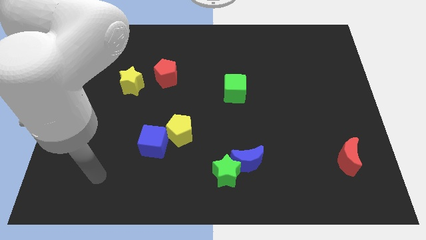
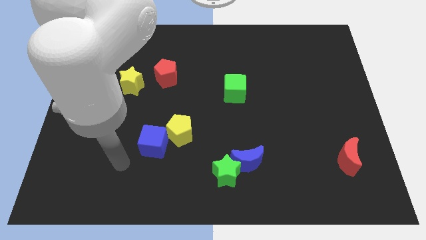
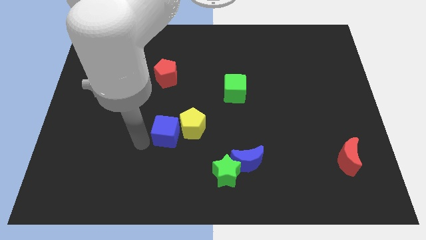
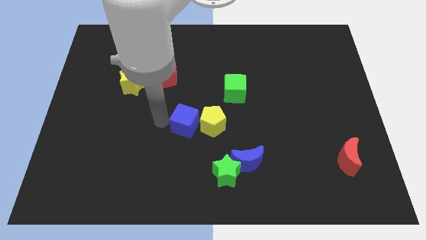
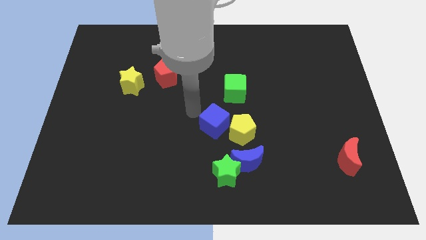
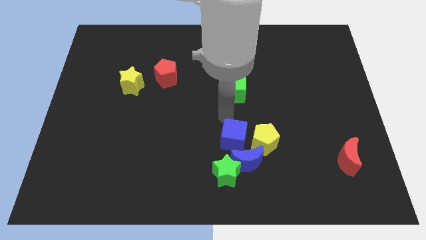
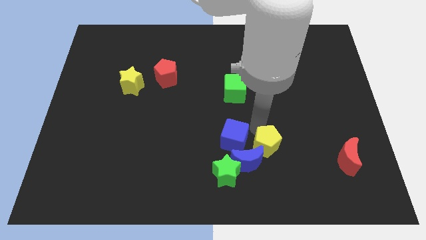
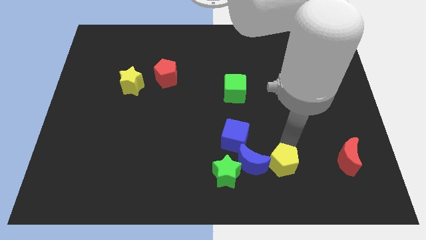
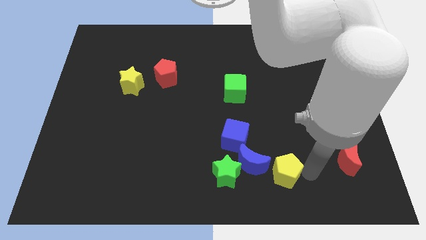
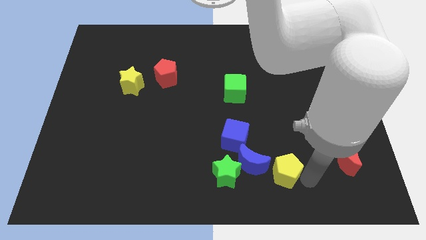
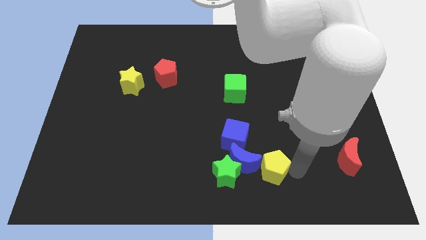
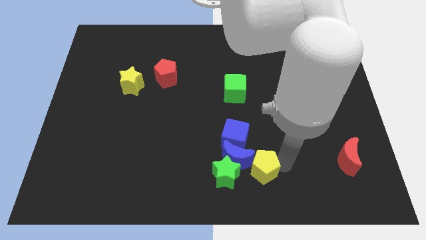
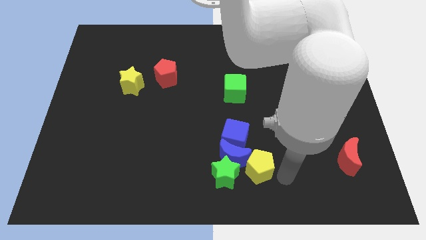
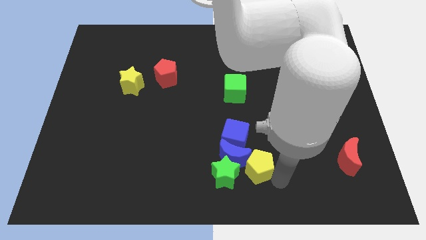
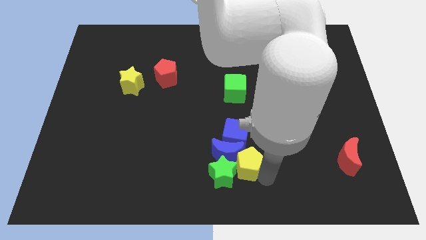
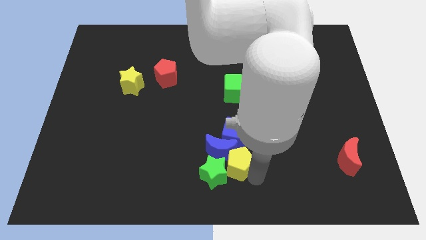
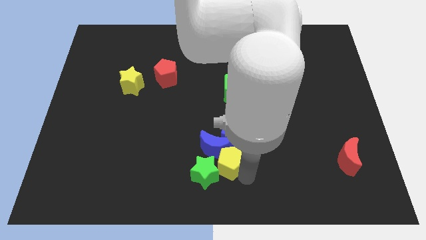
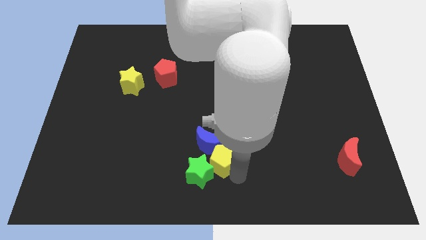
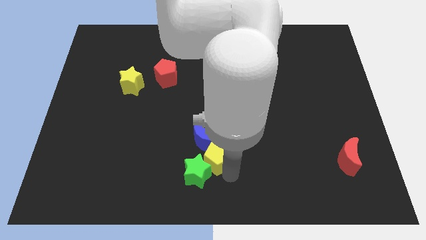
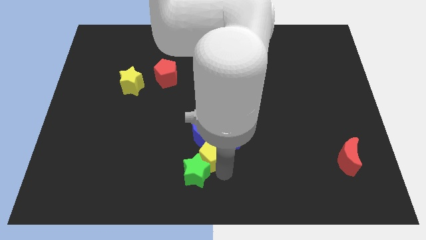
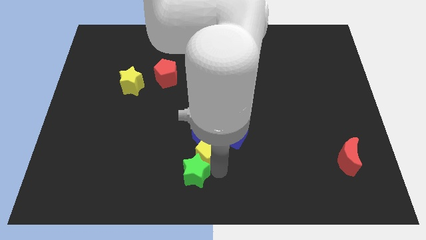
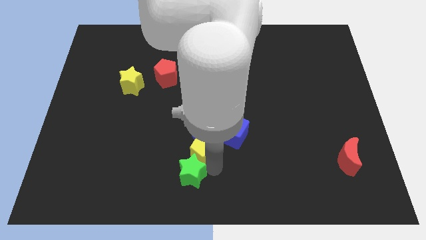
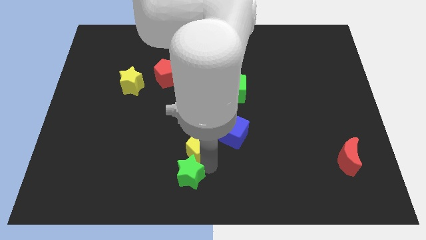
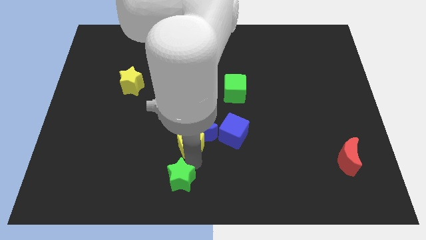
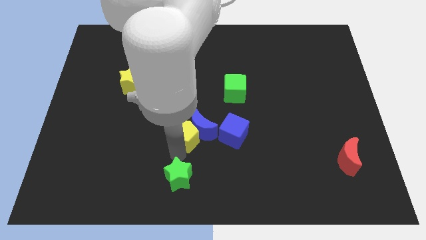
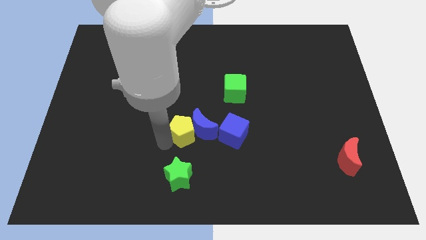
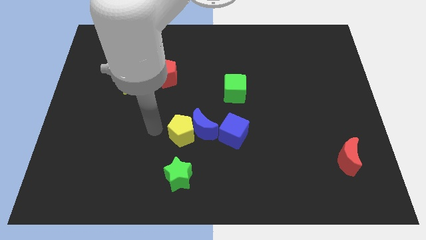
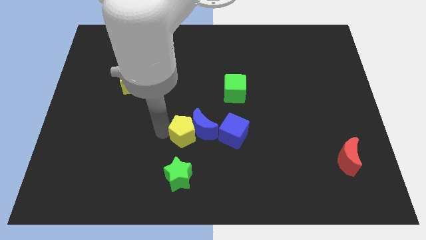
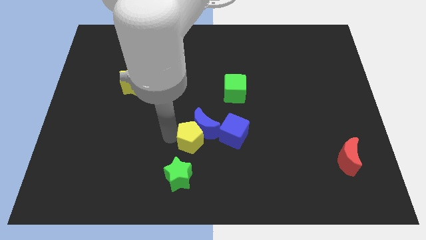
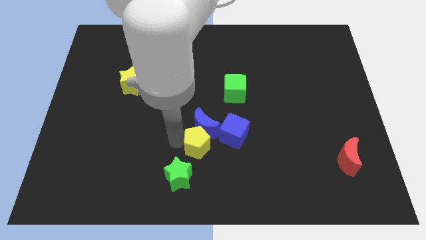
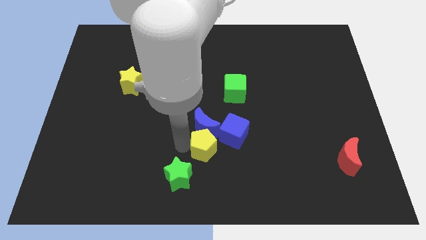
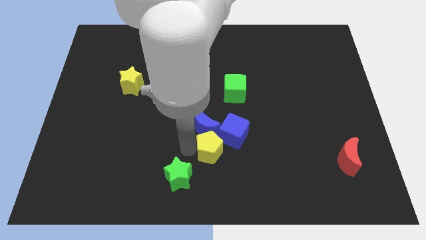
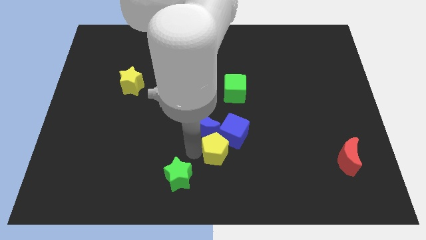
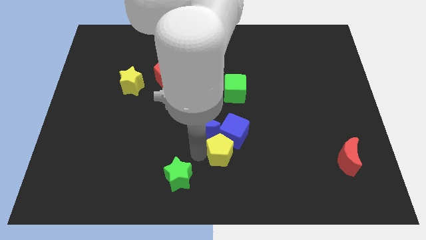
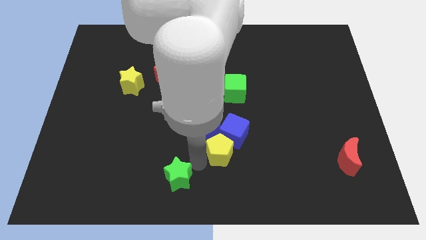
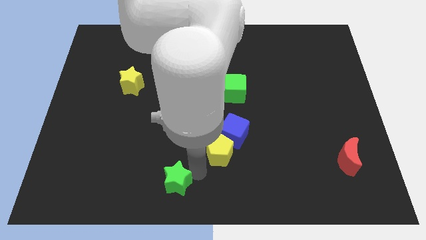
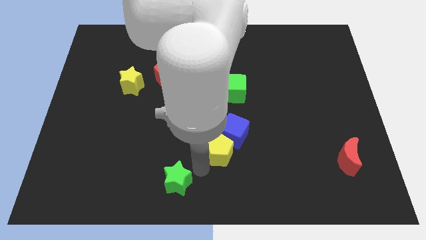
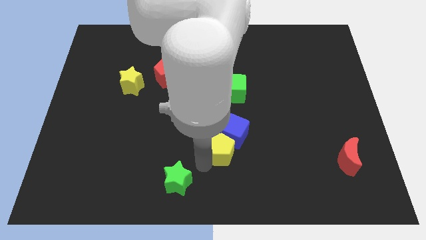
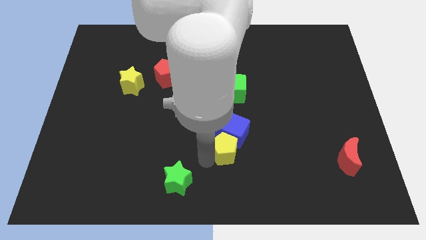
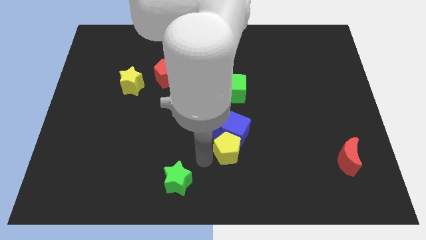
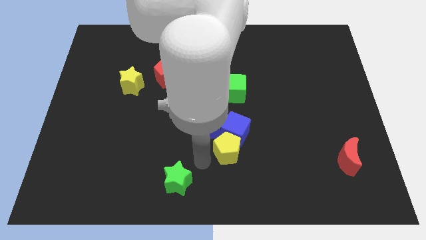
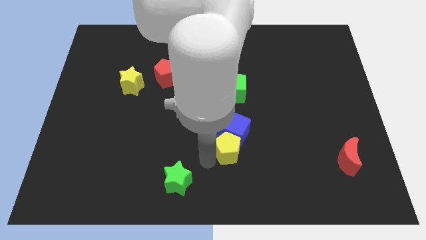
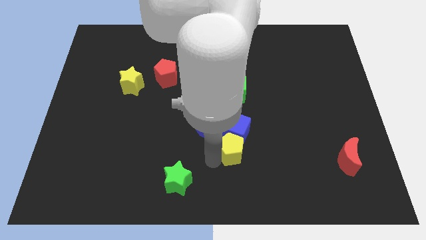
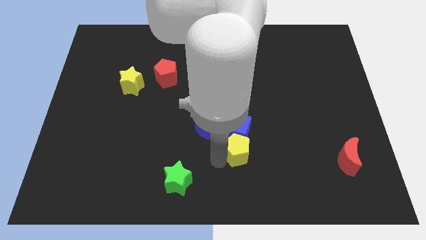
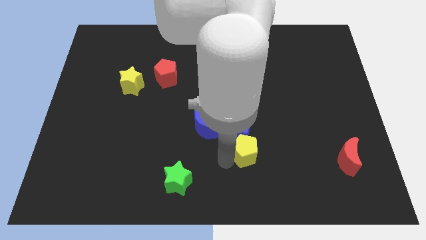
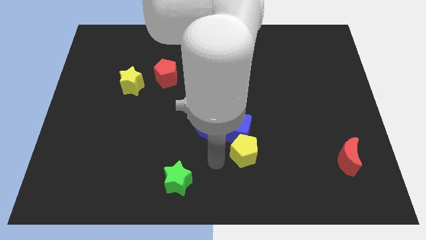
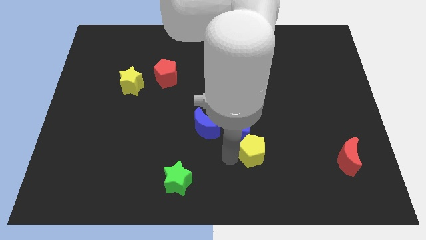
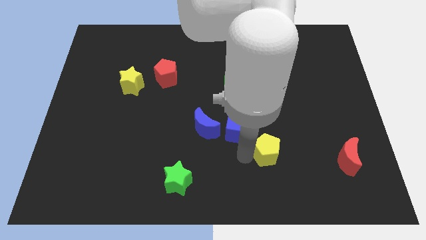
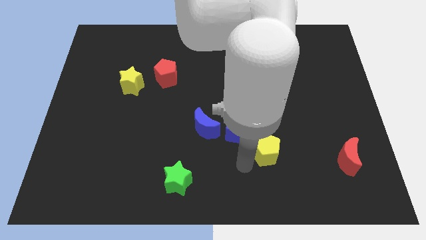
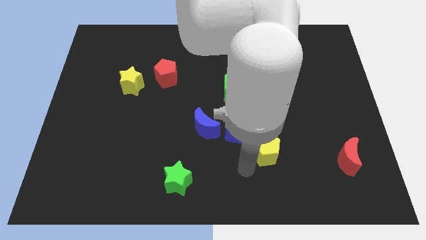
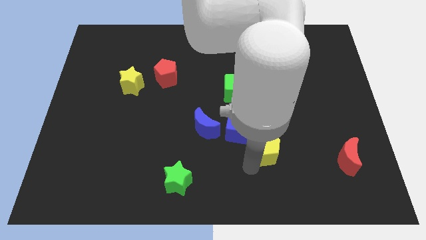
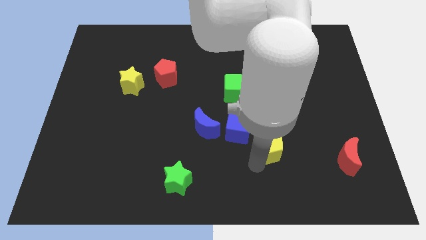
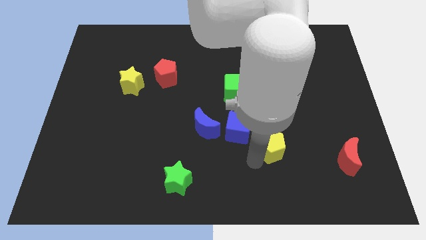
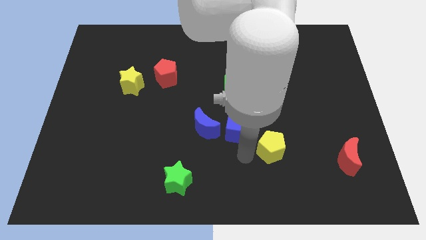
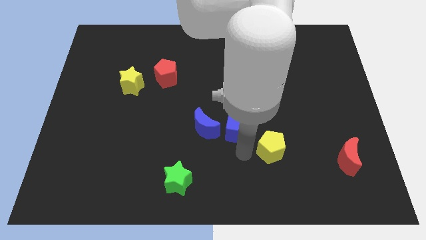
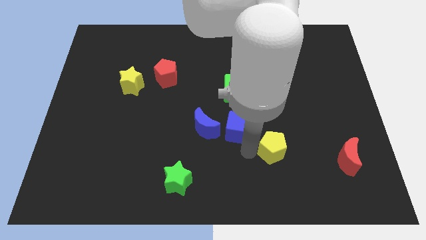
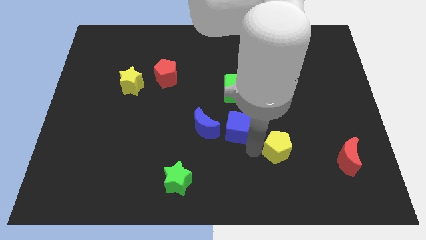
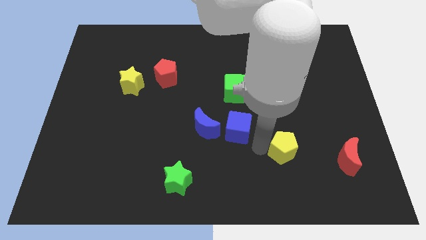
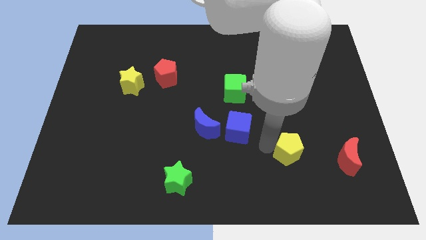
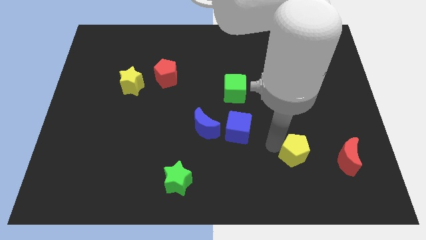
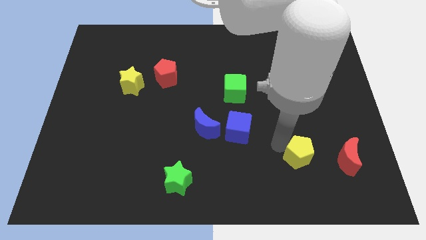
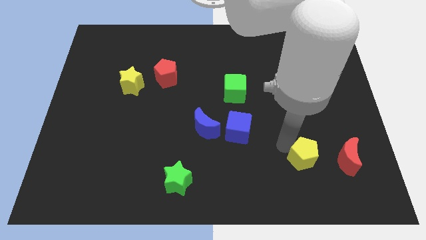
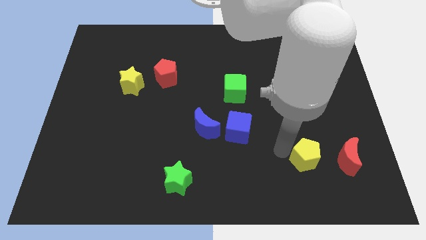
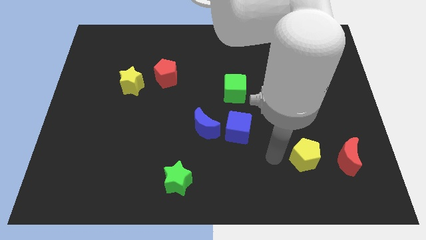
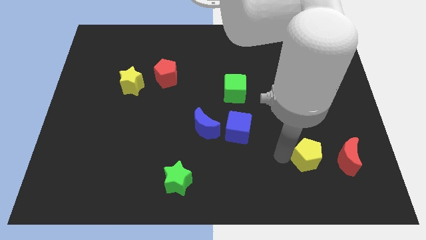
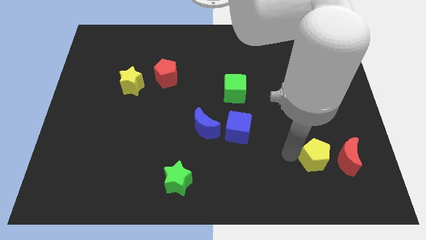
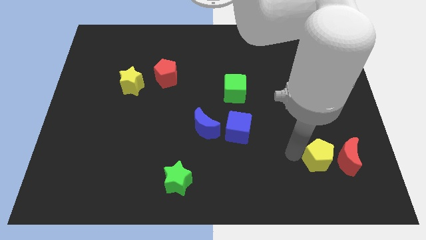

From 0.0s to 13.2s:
move the yellow pentagon close to the red moon

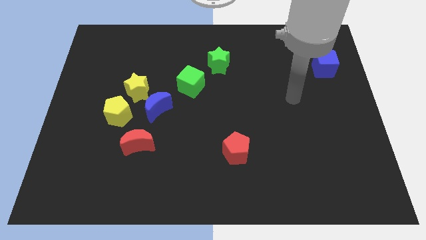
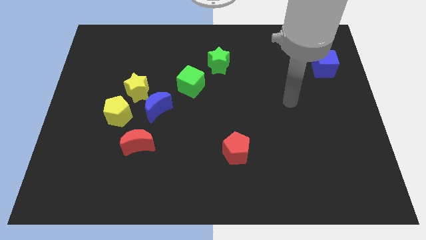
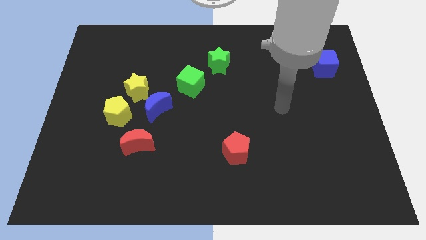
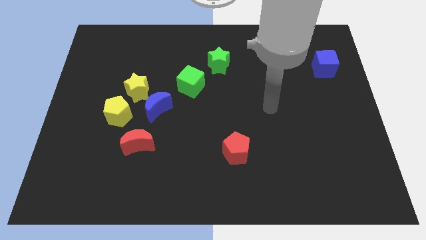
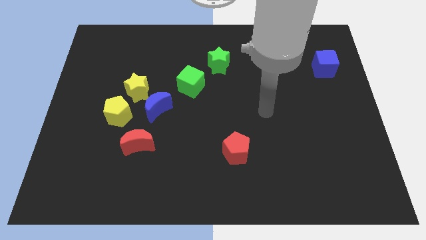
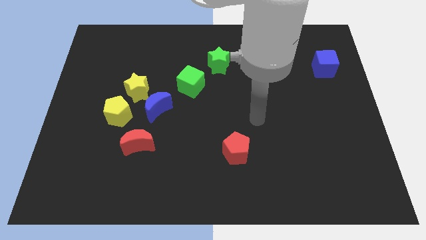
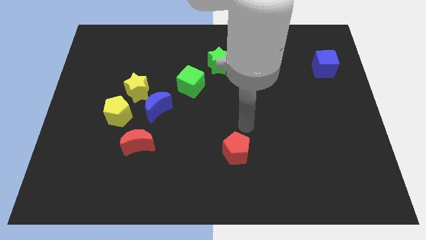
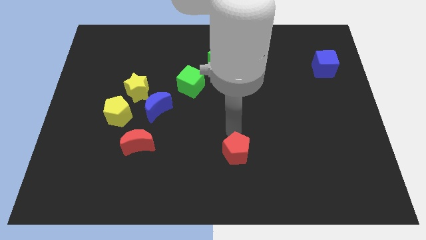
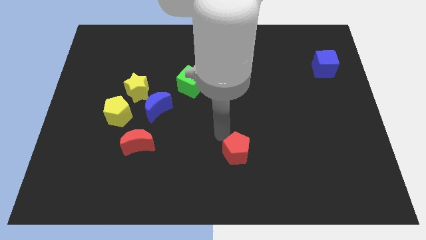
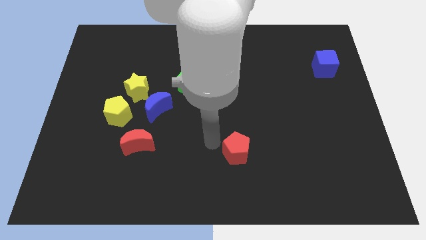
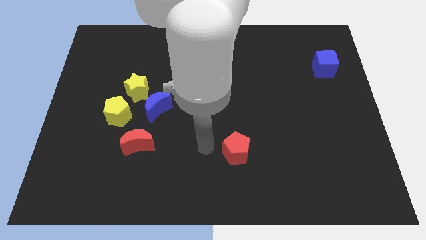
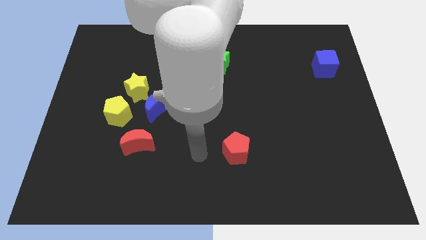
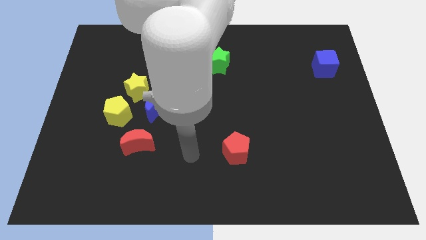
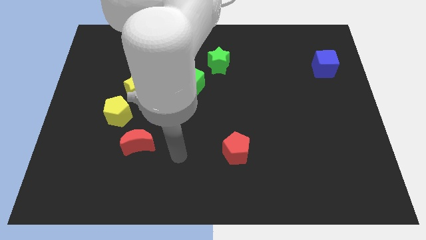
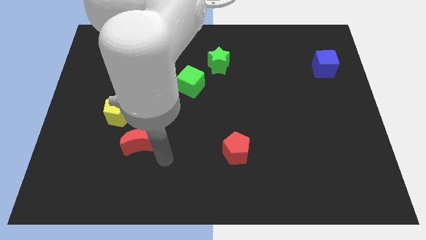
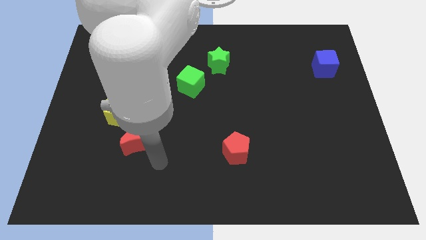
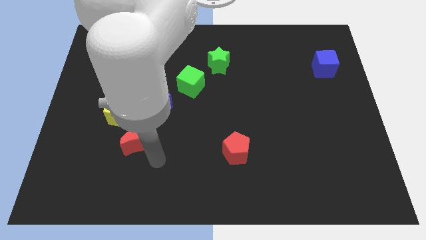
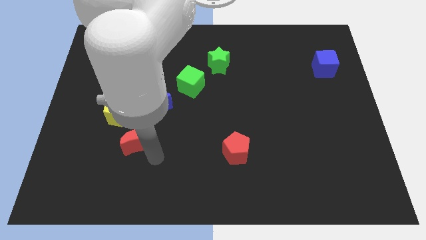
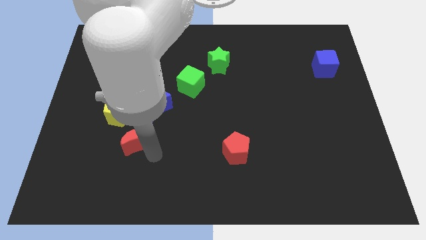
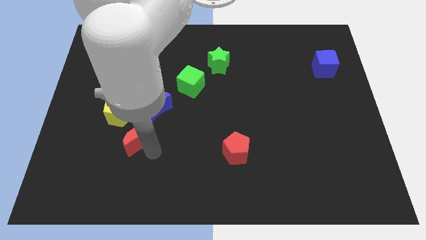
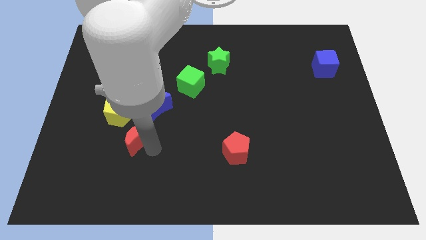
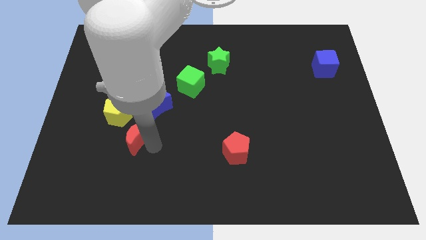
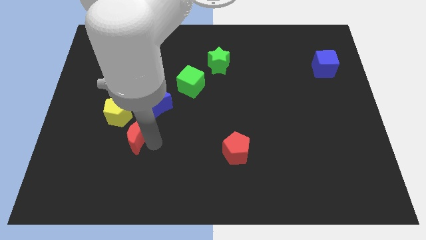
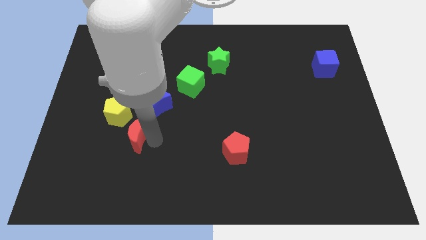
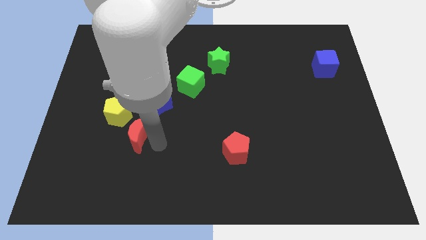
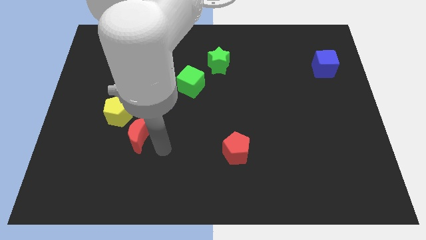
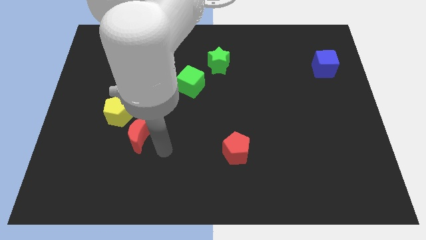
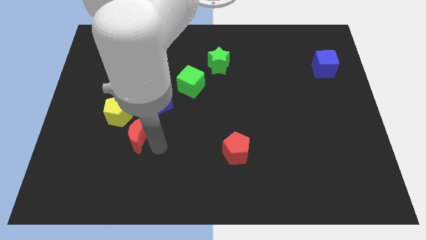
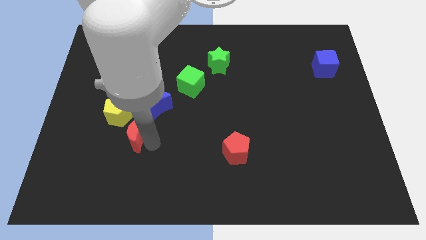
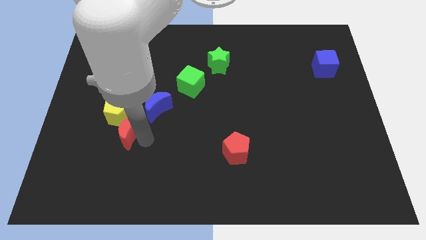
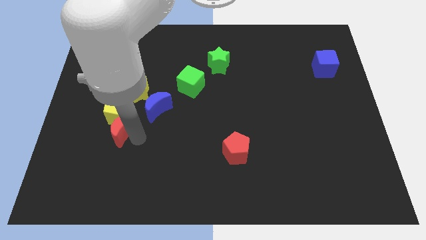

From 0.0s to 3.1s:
move the red moon to the yellow pentagon
